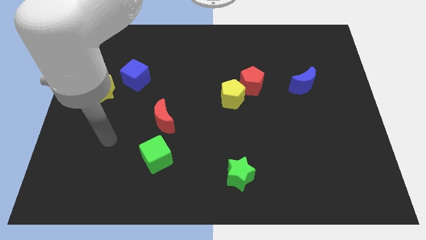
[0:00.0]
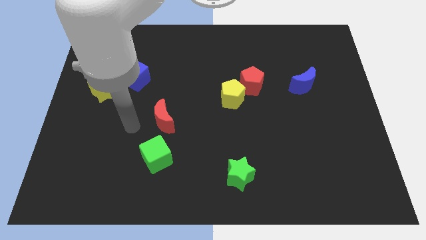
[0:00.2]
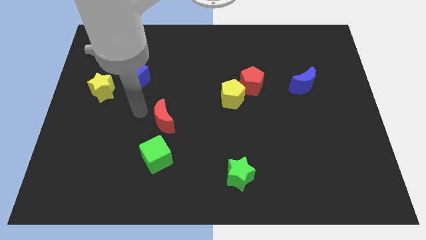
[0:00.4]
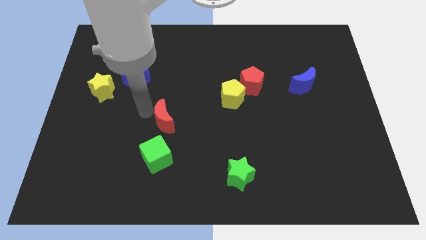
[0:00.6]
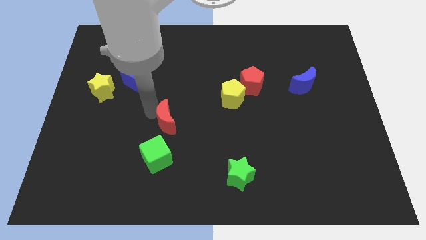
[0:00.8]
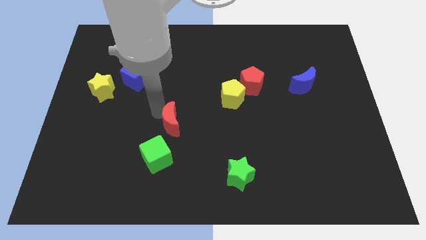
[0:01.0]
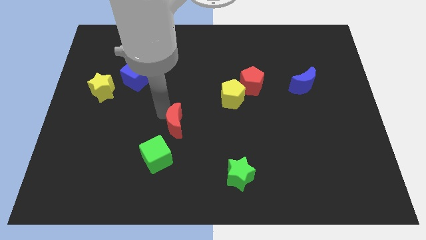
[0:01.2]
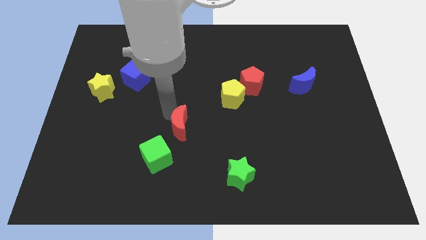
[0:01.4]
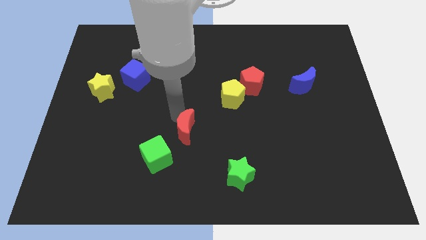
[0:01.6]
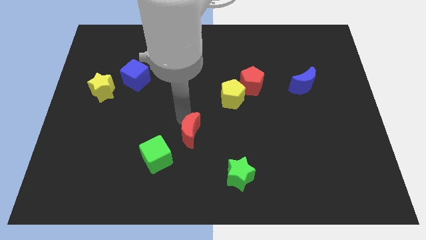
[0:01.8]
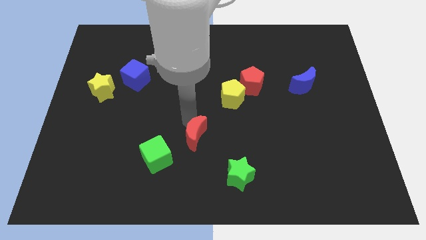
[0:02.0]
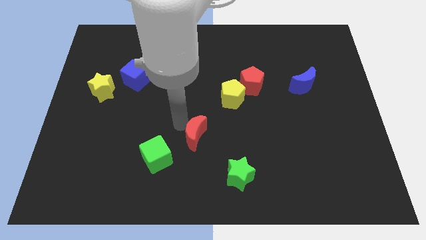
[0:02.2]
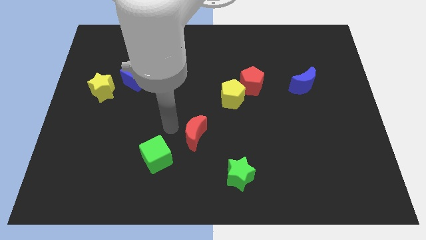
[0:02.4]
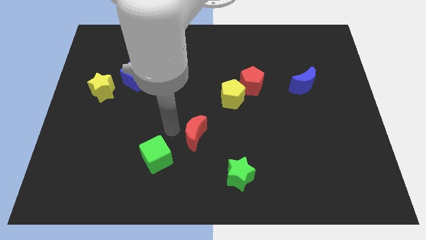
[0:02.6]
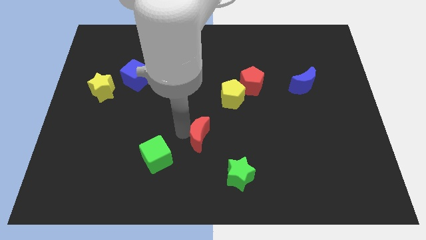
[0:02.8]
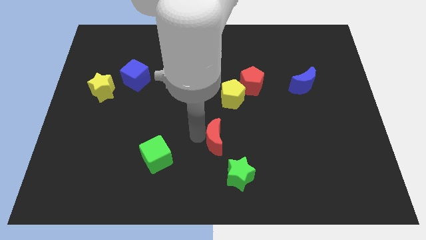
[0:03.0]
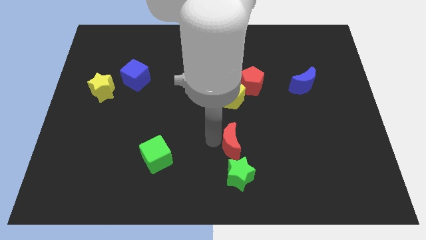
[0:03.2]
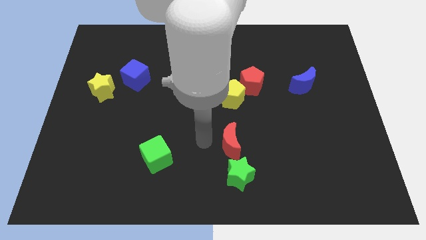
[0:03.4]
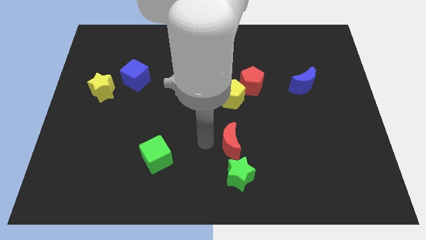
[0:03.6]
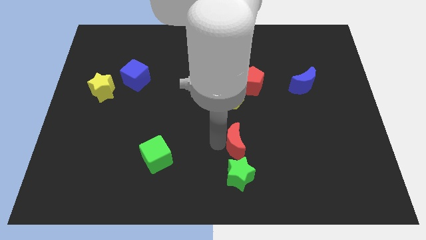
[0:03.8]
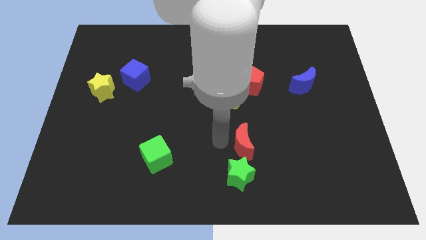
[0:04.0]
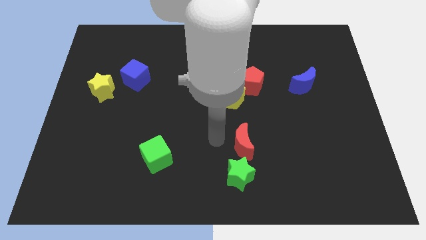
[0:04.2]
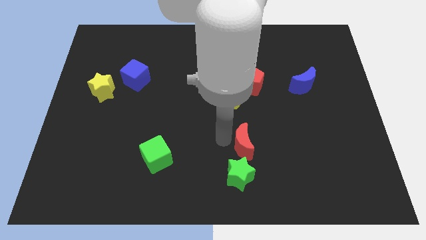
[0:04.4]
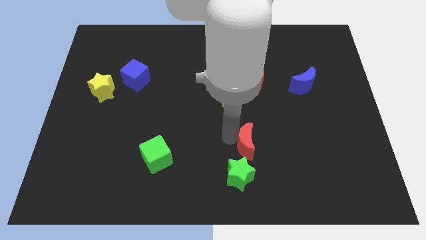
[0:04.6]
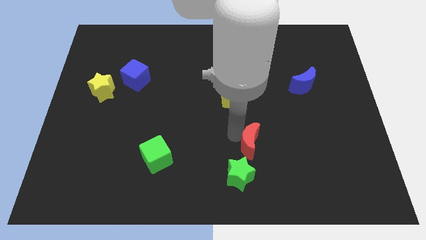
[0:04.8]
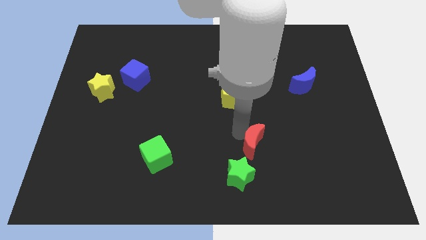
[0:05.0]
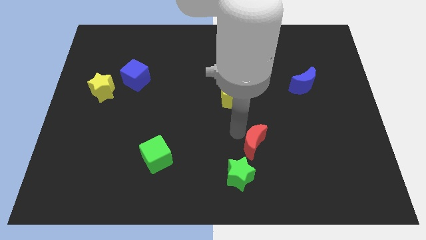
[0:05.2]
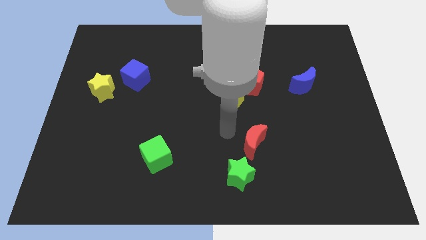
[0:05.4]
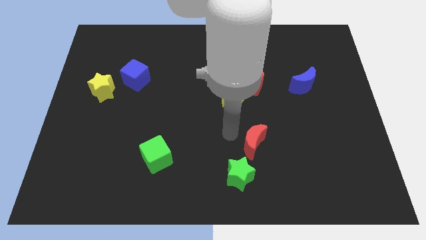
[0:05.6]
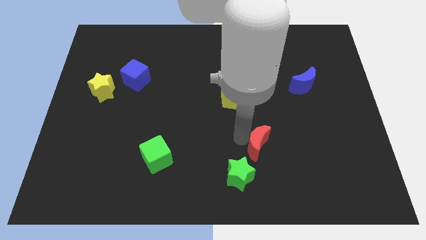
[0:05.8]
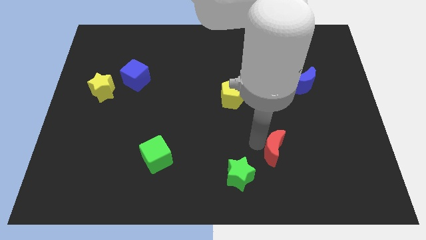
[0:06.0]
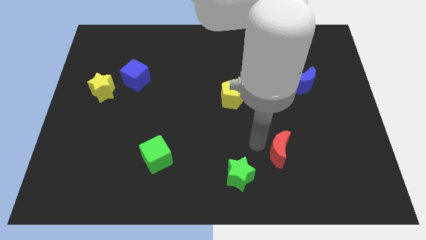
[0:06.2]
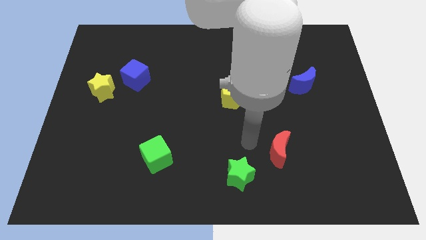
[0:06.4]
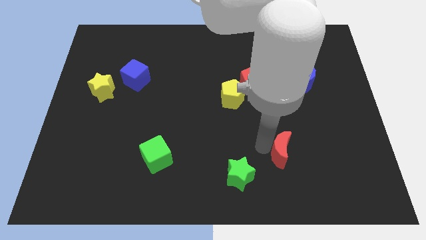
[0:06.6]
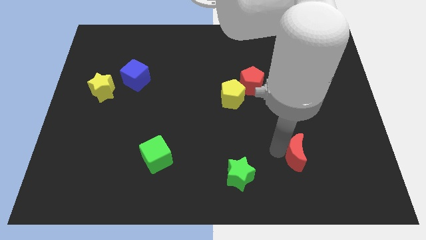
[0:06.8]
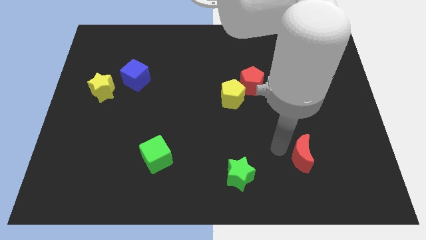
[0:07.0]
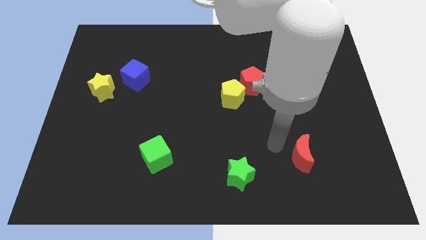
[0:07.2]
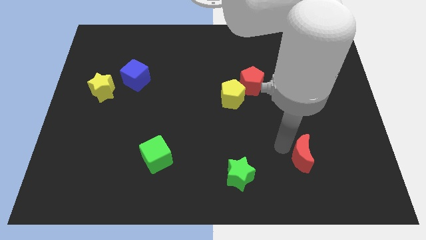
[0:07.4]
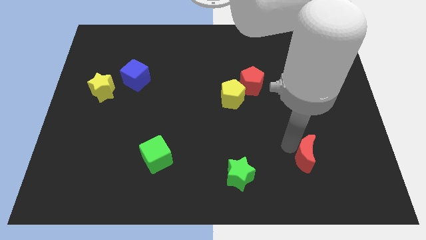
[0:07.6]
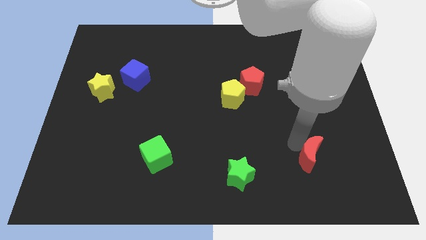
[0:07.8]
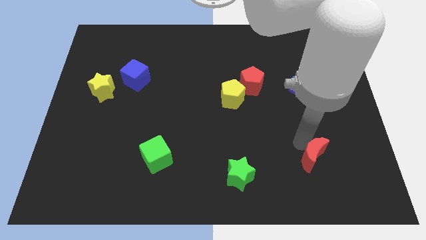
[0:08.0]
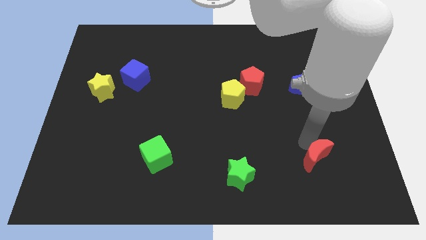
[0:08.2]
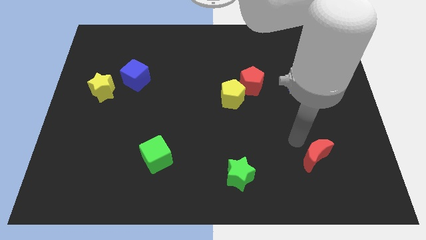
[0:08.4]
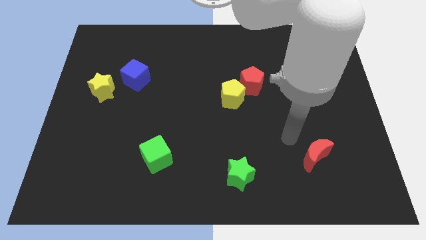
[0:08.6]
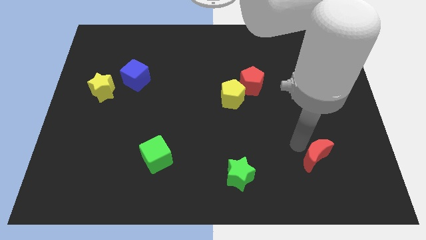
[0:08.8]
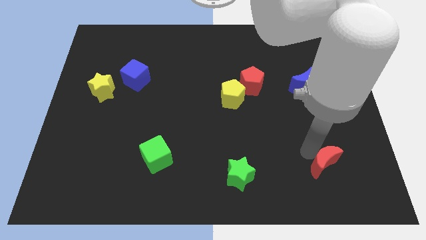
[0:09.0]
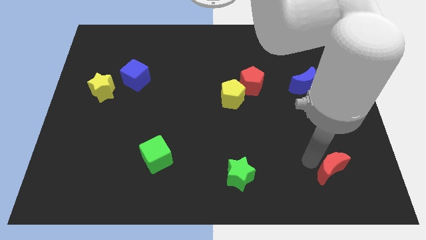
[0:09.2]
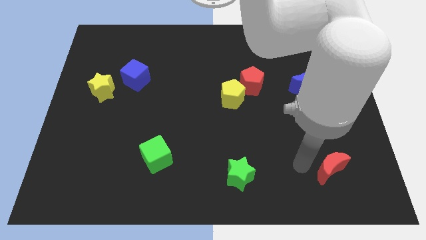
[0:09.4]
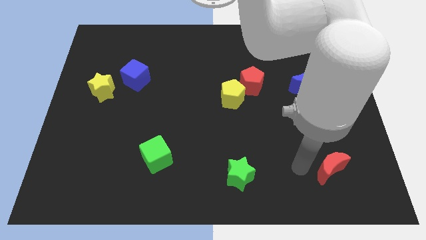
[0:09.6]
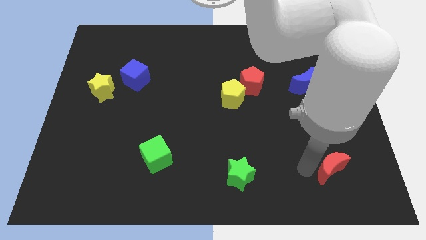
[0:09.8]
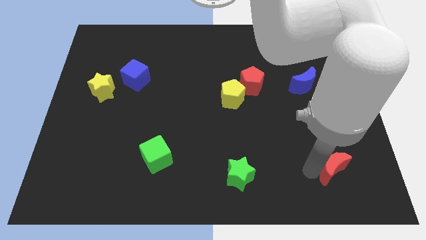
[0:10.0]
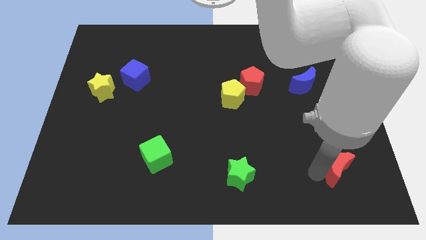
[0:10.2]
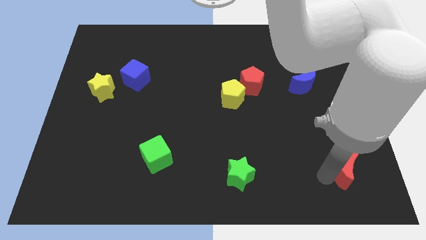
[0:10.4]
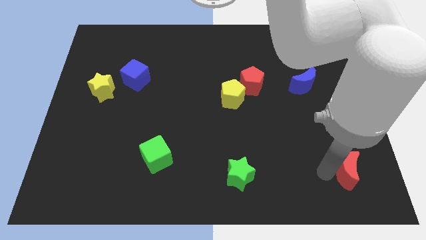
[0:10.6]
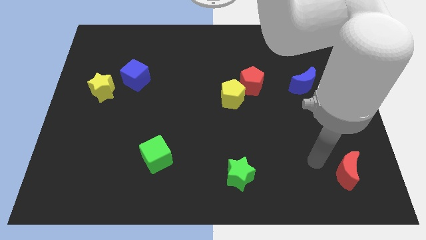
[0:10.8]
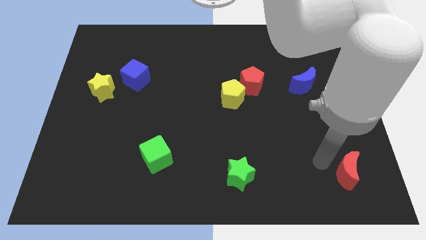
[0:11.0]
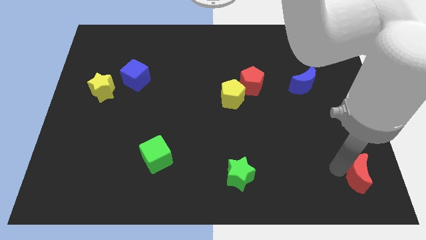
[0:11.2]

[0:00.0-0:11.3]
slide the red moon to the bottom right

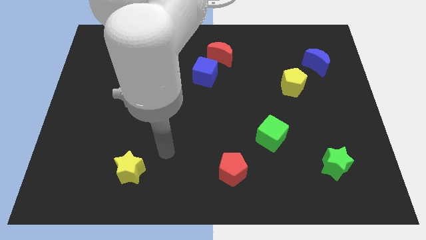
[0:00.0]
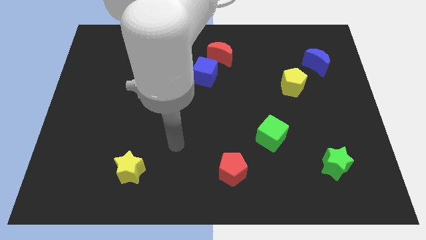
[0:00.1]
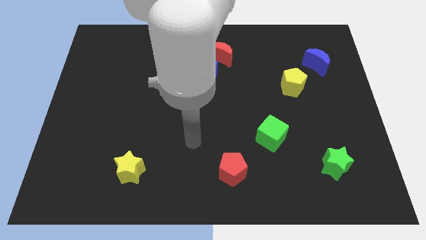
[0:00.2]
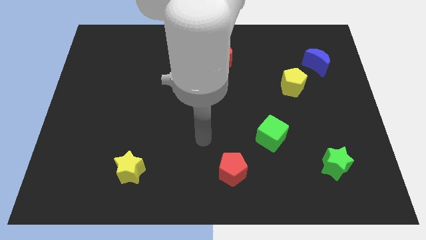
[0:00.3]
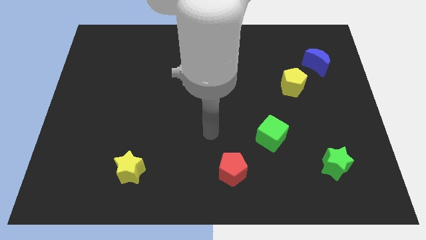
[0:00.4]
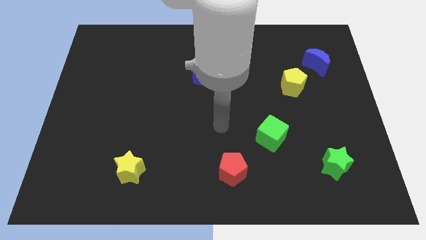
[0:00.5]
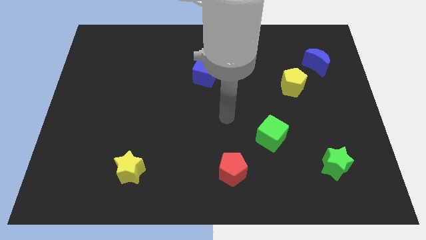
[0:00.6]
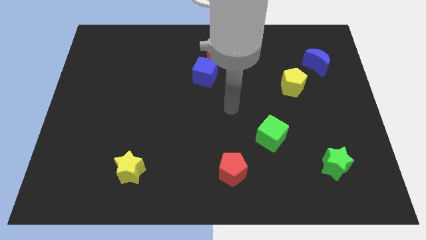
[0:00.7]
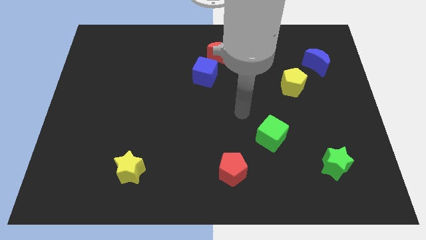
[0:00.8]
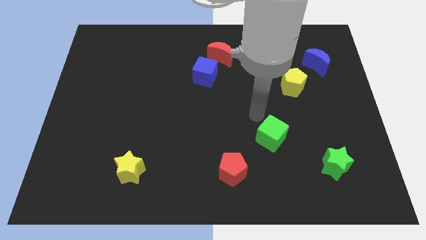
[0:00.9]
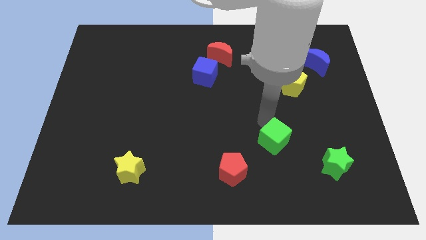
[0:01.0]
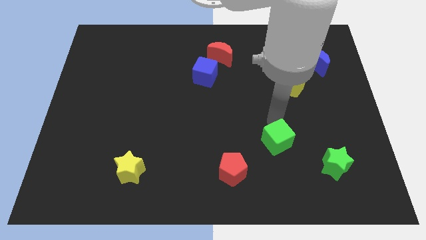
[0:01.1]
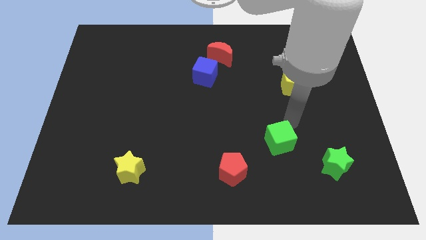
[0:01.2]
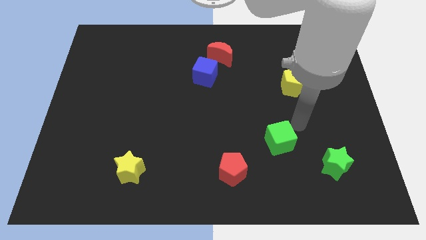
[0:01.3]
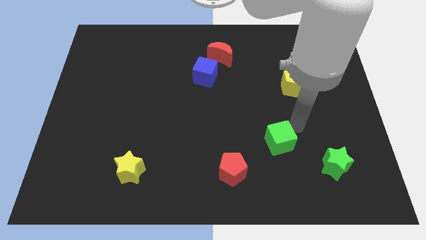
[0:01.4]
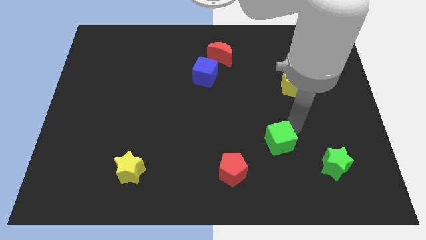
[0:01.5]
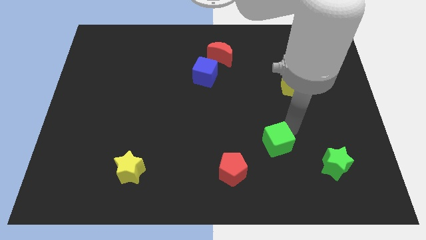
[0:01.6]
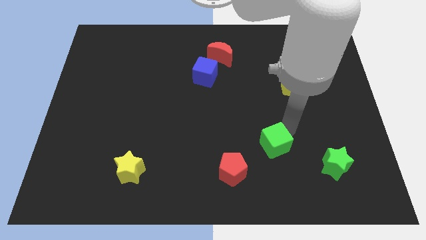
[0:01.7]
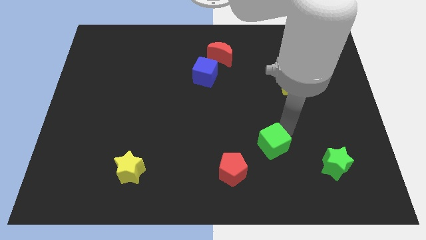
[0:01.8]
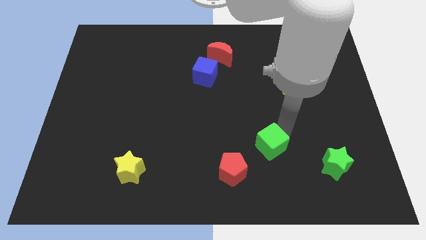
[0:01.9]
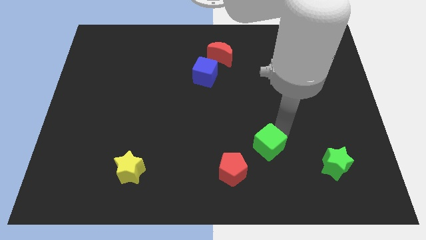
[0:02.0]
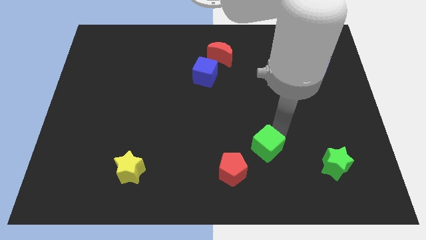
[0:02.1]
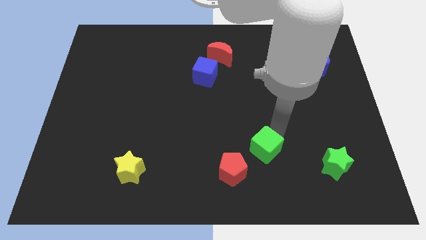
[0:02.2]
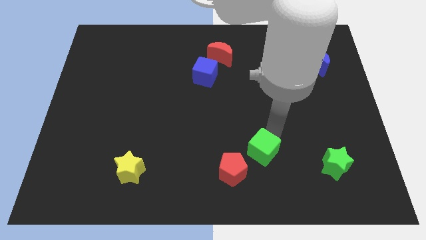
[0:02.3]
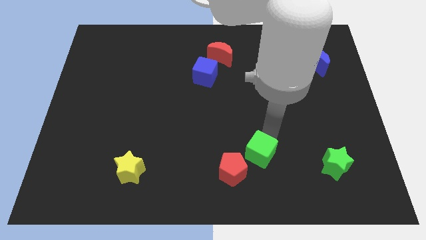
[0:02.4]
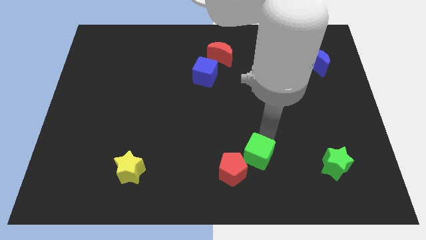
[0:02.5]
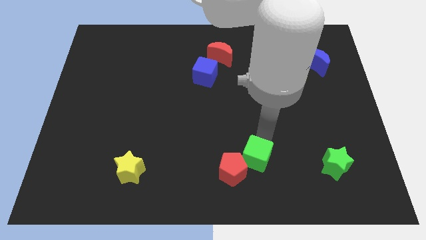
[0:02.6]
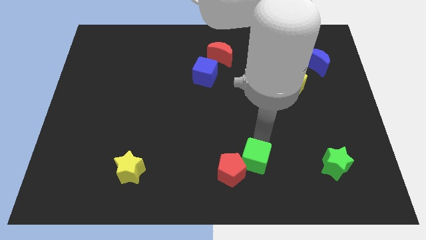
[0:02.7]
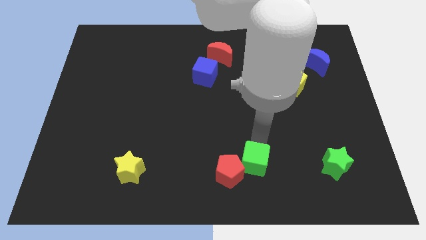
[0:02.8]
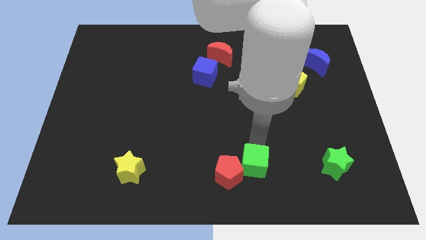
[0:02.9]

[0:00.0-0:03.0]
push the green cube to the bottom side
